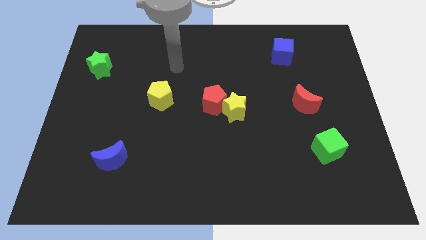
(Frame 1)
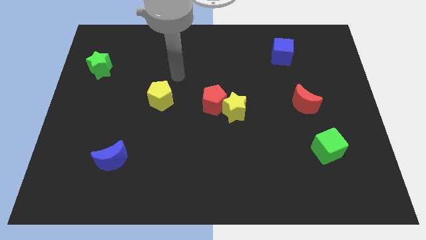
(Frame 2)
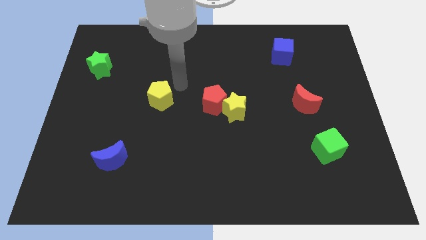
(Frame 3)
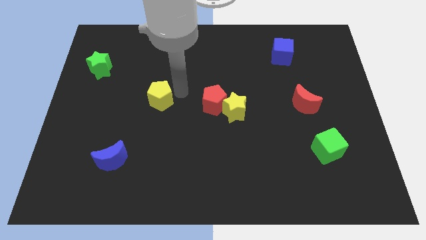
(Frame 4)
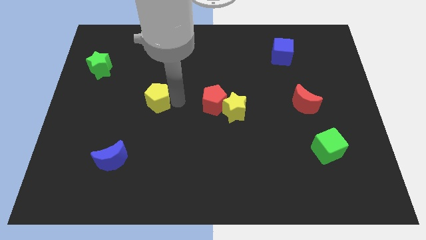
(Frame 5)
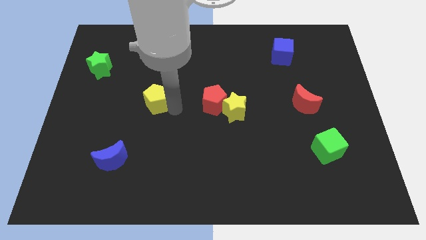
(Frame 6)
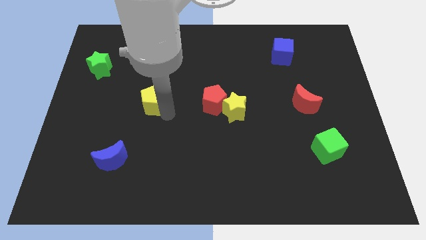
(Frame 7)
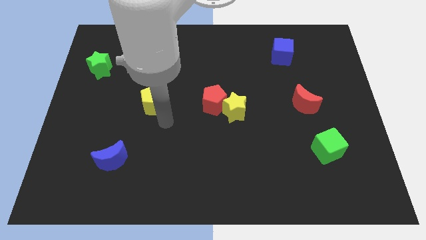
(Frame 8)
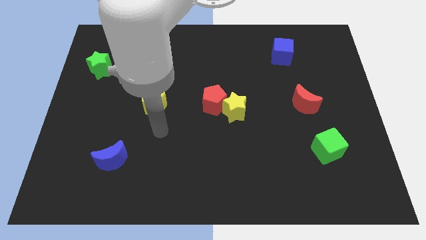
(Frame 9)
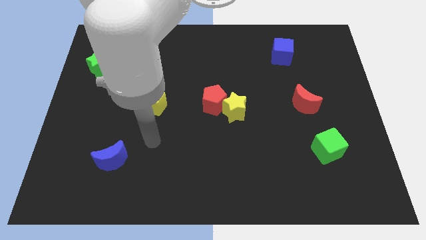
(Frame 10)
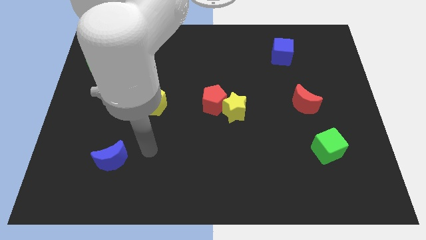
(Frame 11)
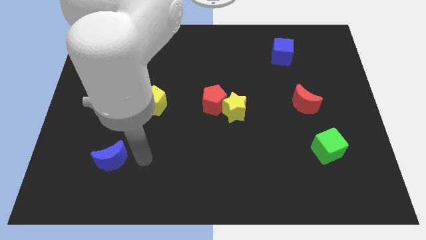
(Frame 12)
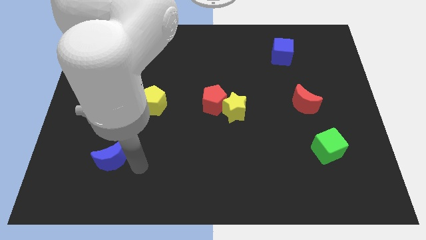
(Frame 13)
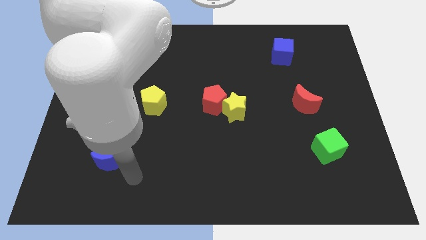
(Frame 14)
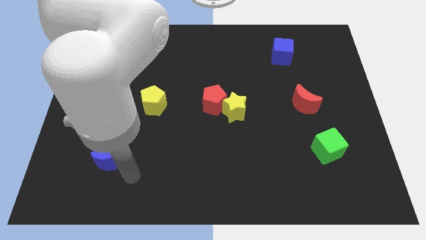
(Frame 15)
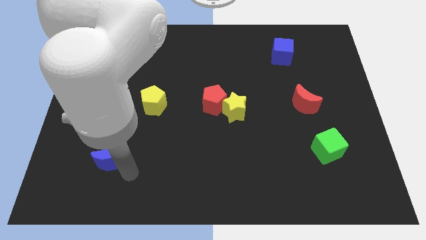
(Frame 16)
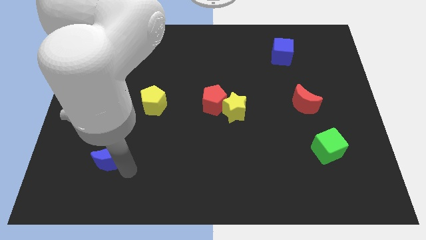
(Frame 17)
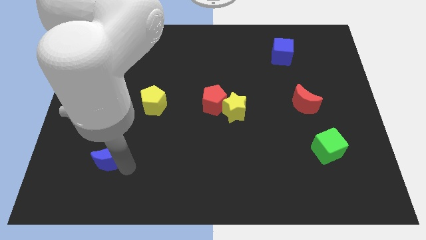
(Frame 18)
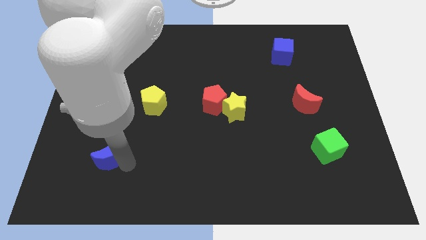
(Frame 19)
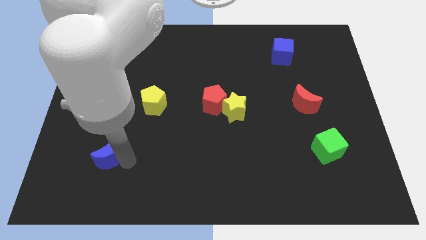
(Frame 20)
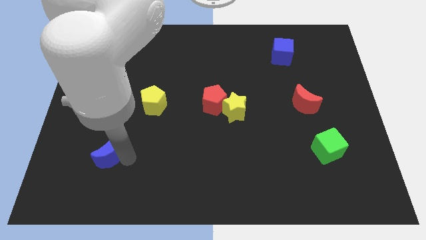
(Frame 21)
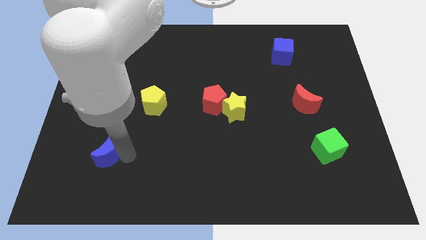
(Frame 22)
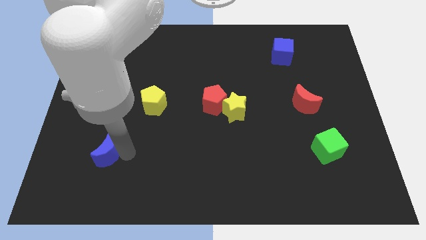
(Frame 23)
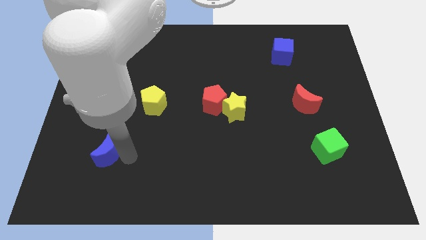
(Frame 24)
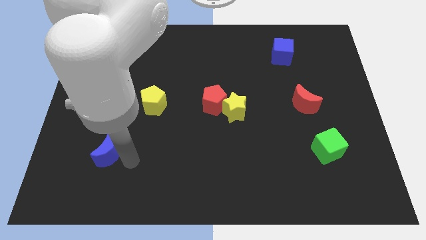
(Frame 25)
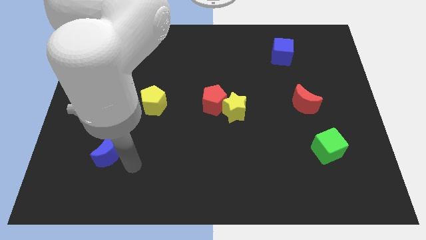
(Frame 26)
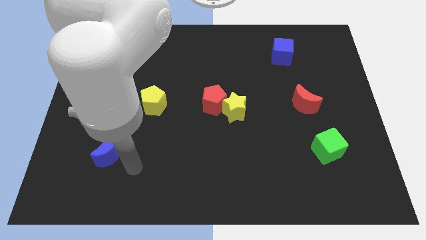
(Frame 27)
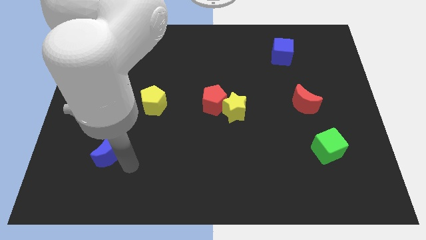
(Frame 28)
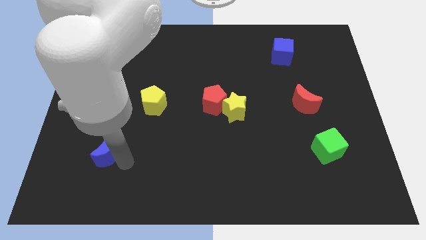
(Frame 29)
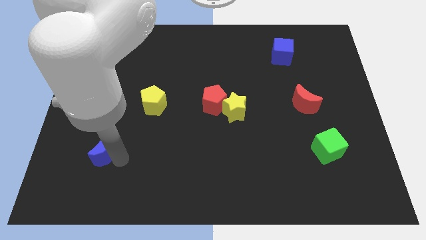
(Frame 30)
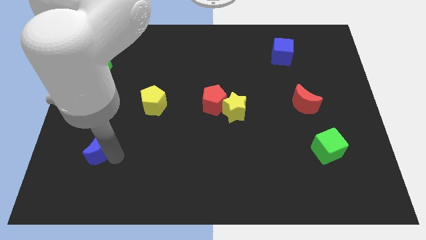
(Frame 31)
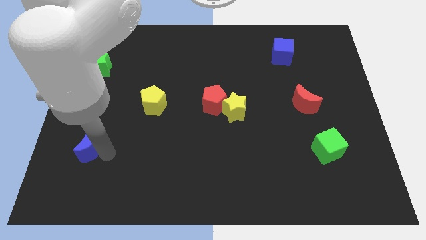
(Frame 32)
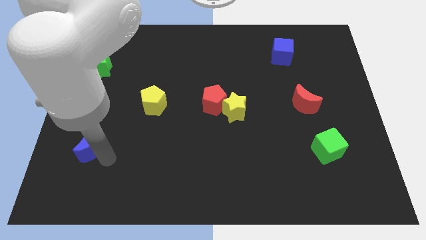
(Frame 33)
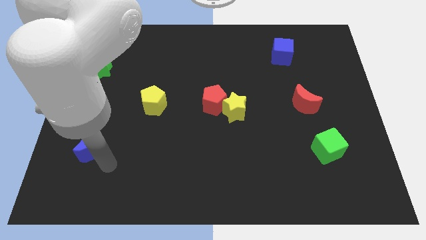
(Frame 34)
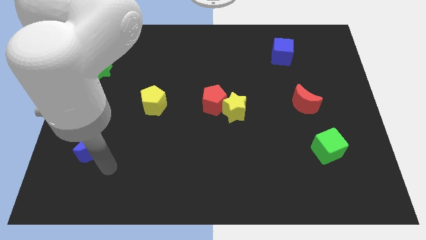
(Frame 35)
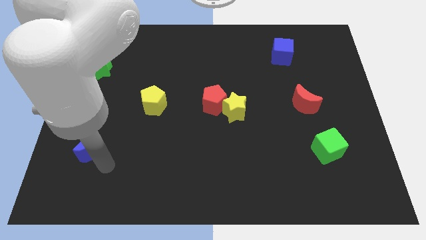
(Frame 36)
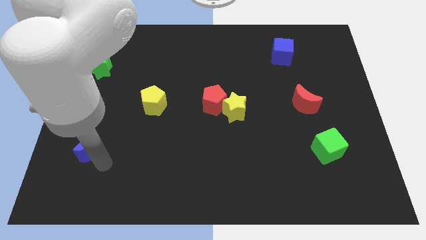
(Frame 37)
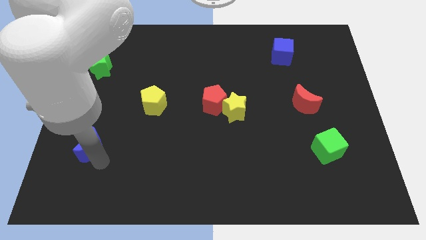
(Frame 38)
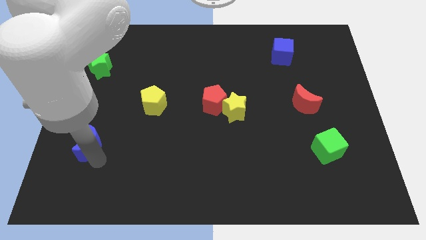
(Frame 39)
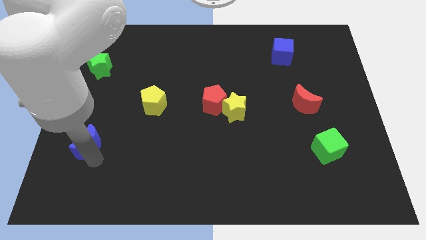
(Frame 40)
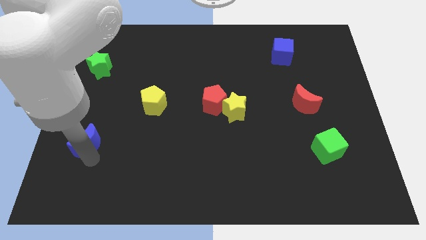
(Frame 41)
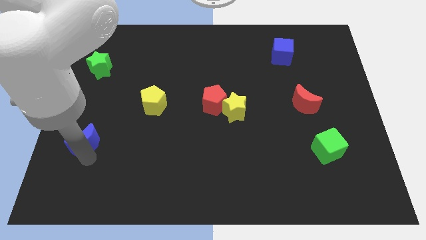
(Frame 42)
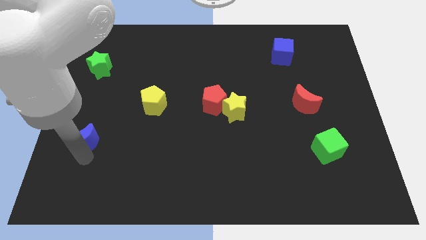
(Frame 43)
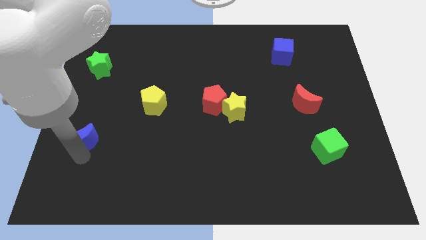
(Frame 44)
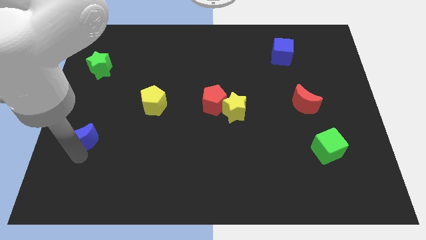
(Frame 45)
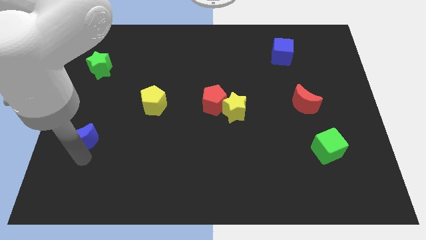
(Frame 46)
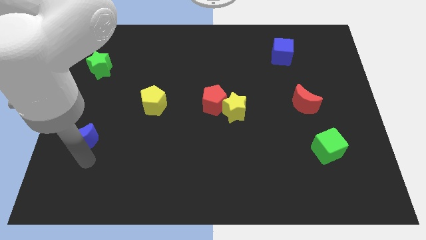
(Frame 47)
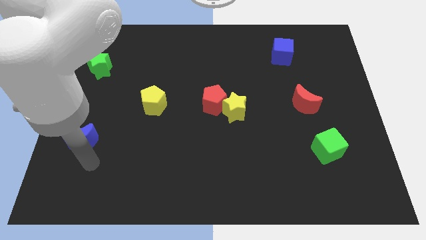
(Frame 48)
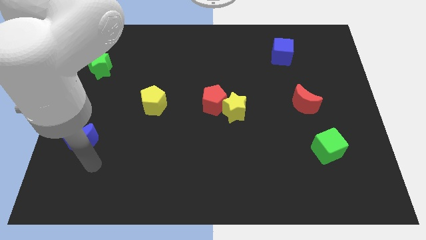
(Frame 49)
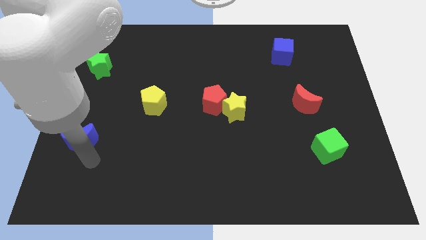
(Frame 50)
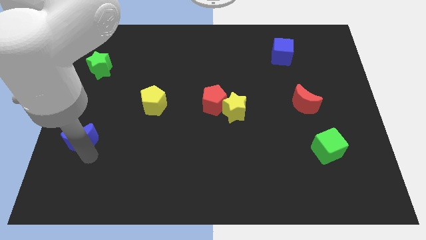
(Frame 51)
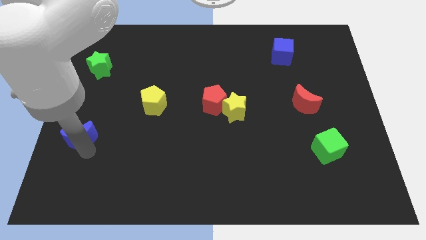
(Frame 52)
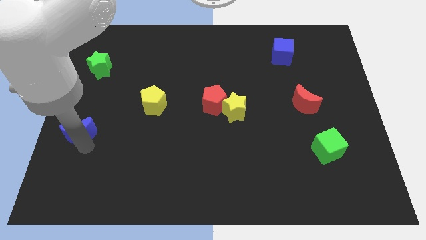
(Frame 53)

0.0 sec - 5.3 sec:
put the blue moon to the left side

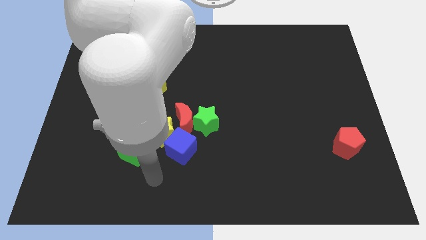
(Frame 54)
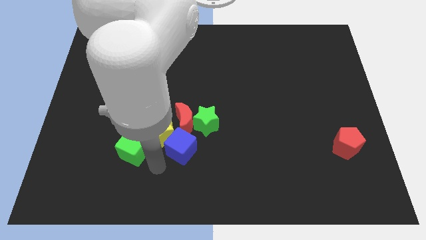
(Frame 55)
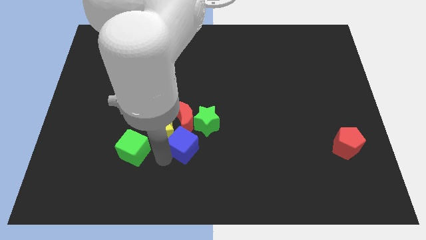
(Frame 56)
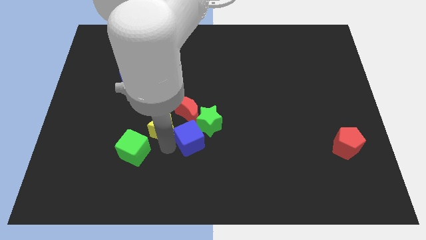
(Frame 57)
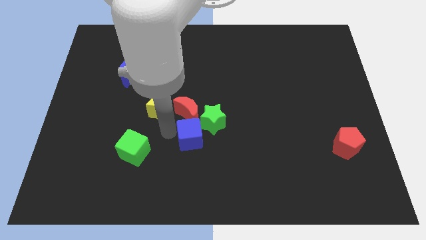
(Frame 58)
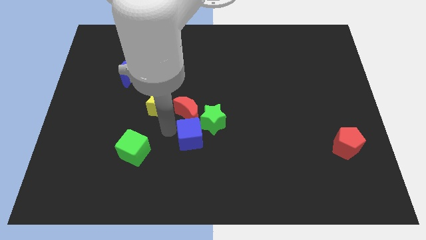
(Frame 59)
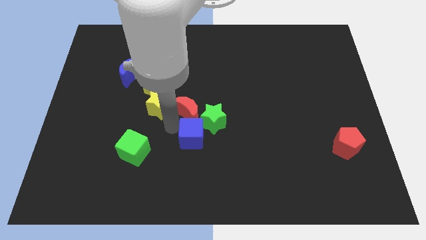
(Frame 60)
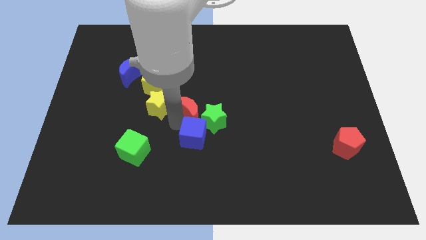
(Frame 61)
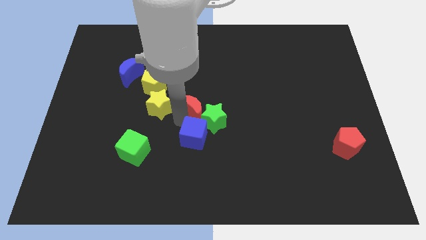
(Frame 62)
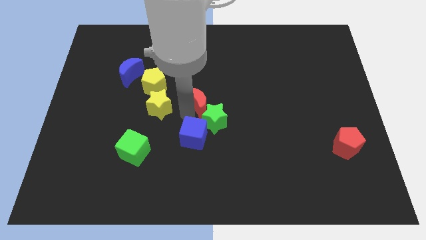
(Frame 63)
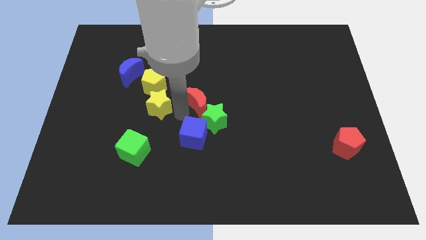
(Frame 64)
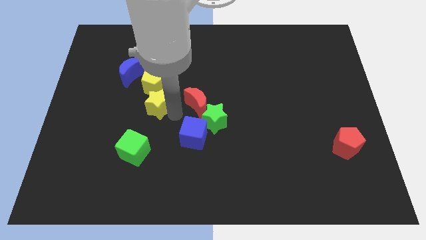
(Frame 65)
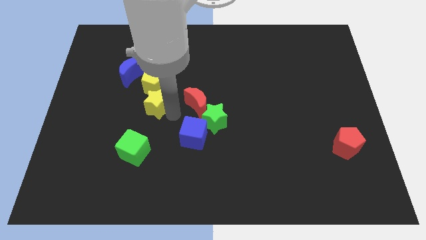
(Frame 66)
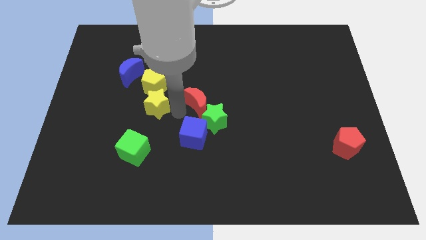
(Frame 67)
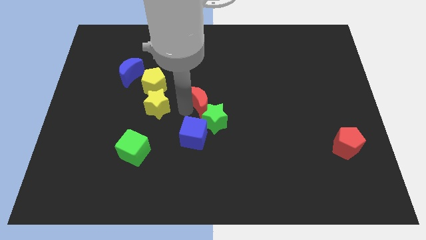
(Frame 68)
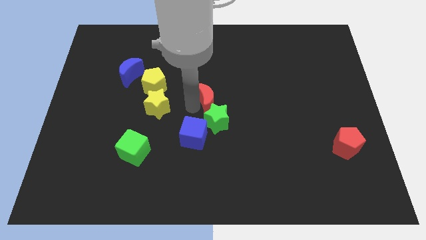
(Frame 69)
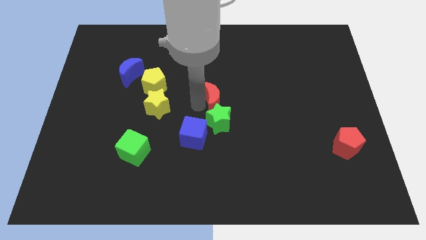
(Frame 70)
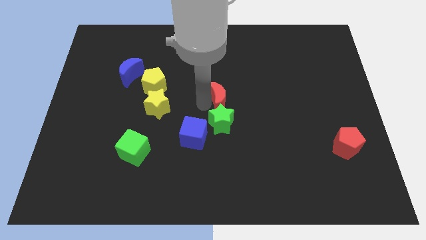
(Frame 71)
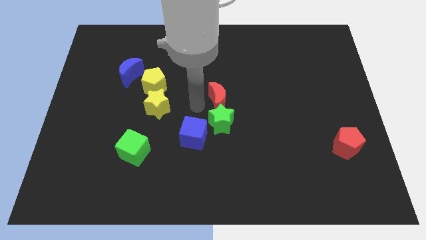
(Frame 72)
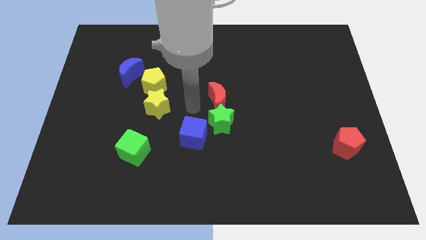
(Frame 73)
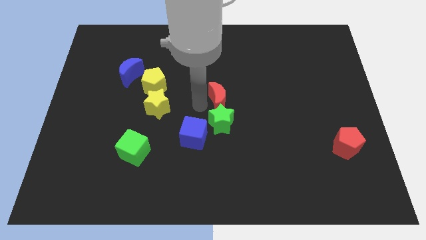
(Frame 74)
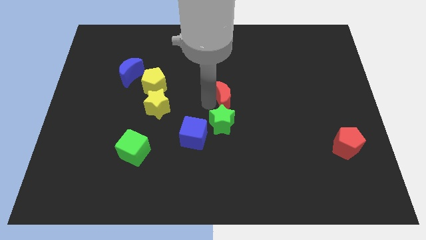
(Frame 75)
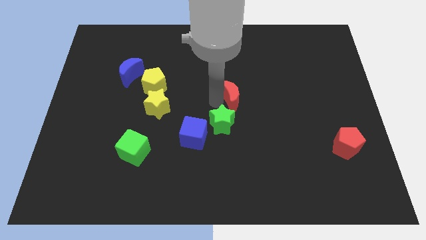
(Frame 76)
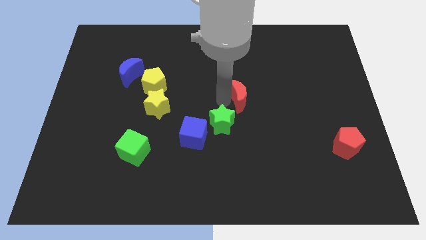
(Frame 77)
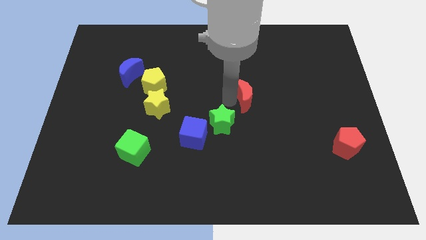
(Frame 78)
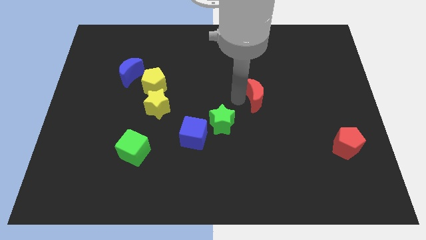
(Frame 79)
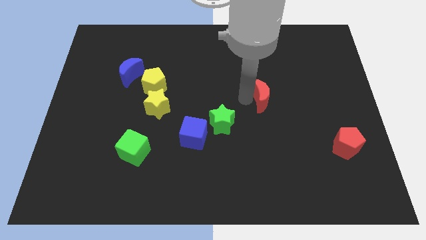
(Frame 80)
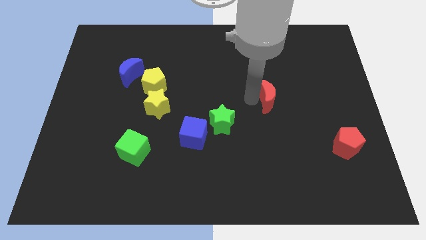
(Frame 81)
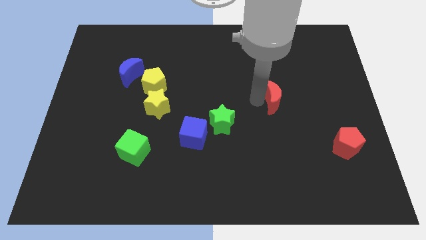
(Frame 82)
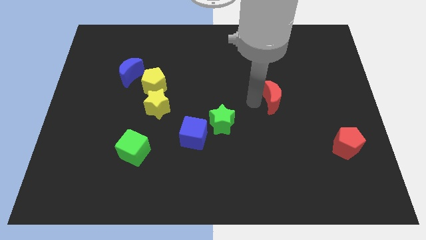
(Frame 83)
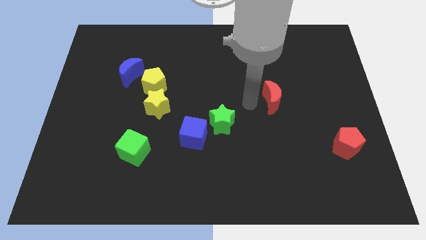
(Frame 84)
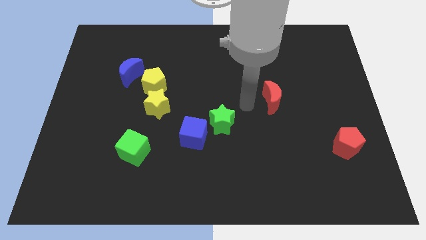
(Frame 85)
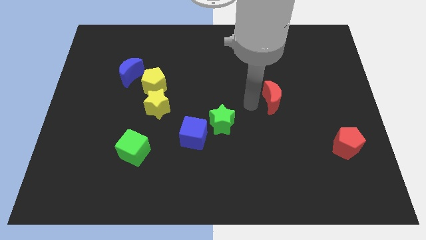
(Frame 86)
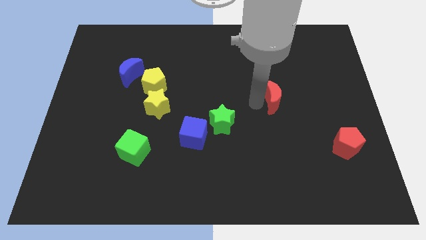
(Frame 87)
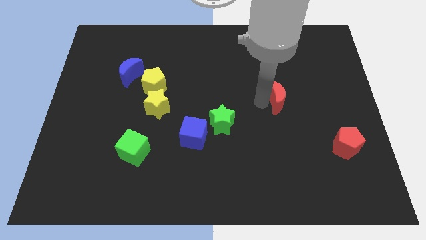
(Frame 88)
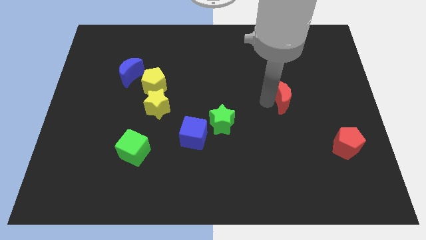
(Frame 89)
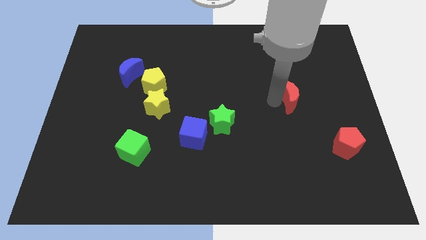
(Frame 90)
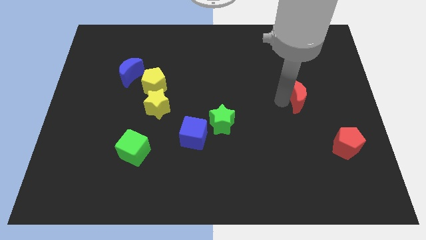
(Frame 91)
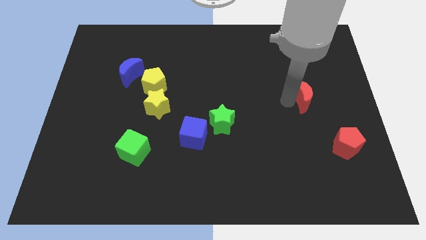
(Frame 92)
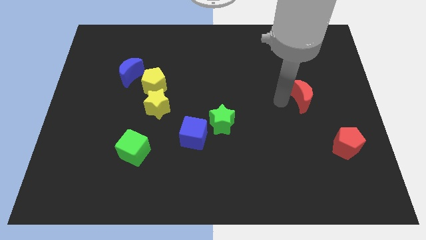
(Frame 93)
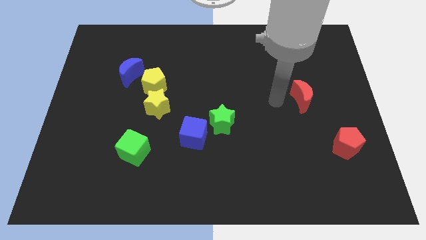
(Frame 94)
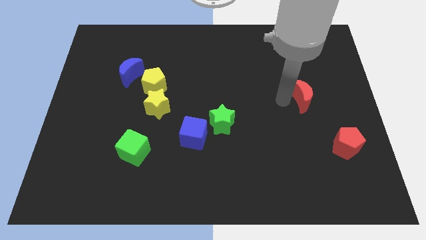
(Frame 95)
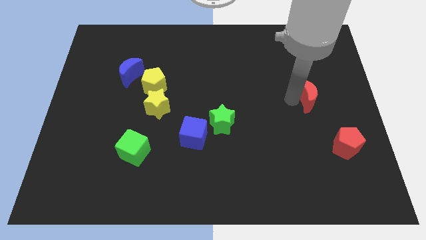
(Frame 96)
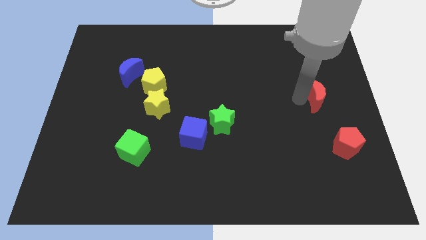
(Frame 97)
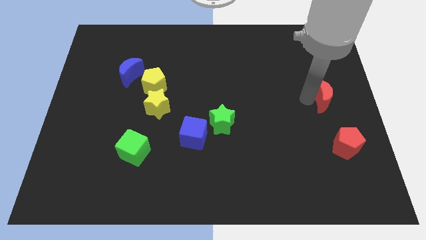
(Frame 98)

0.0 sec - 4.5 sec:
slide the red moon to the right side
